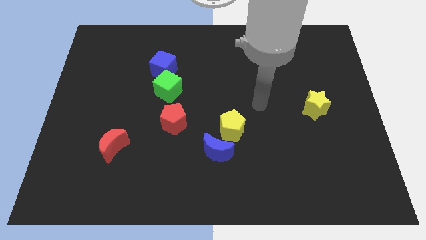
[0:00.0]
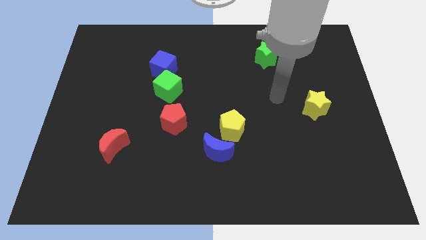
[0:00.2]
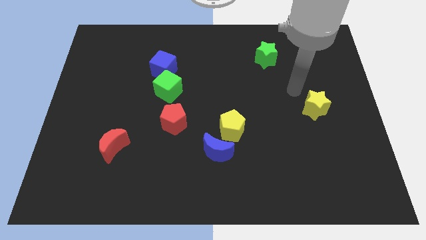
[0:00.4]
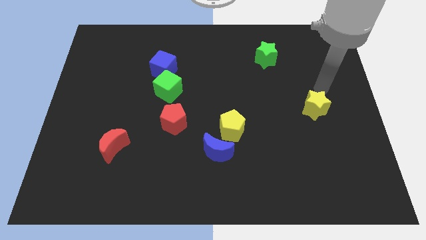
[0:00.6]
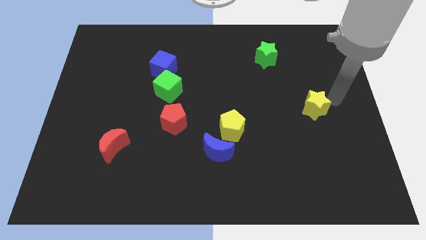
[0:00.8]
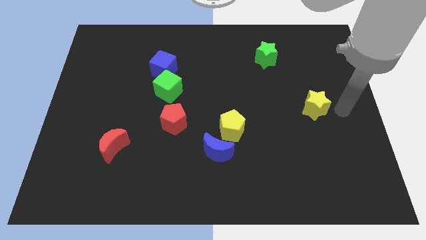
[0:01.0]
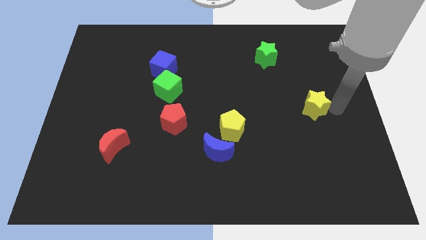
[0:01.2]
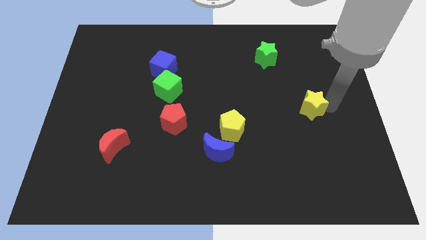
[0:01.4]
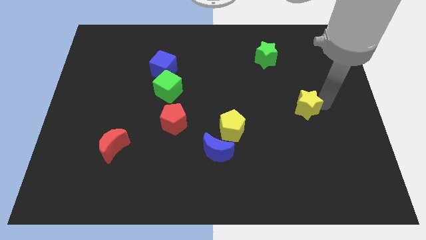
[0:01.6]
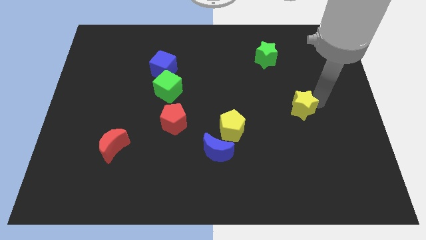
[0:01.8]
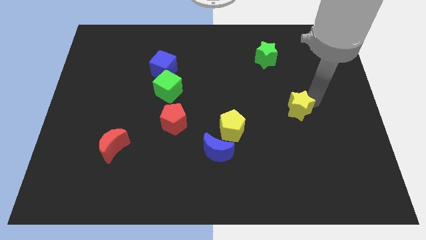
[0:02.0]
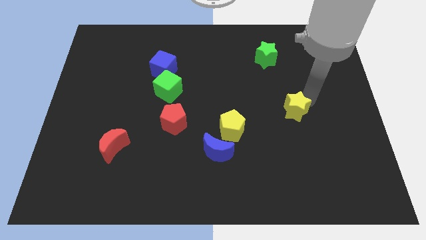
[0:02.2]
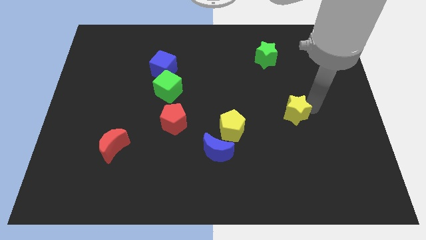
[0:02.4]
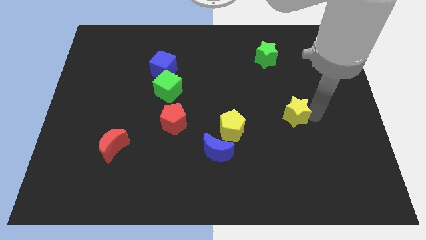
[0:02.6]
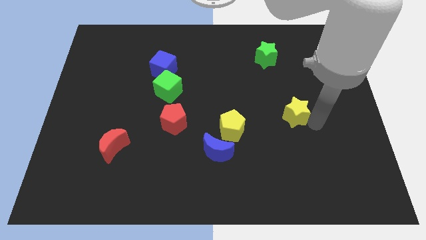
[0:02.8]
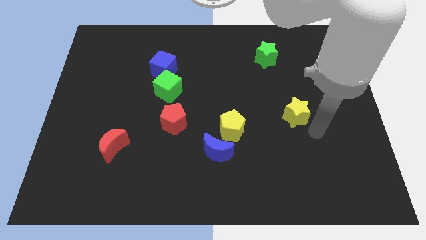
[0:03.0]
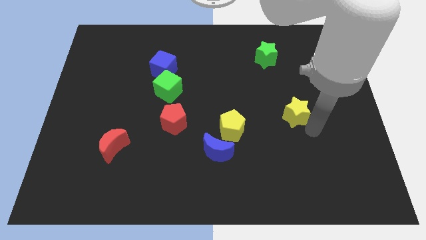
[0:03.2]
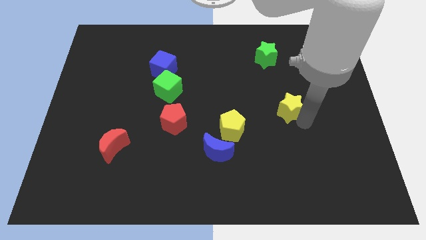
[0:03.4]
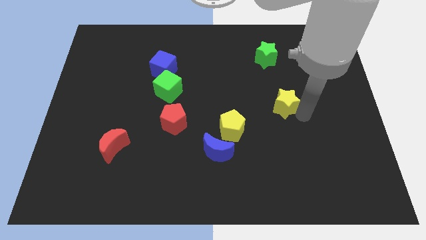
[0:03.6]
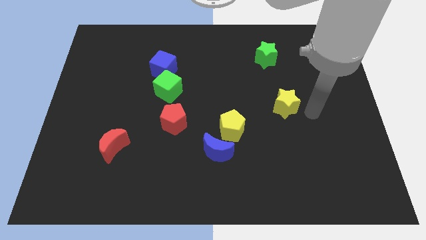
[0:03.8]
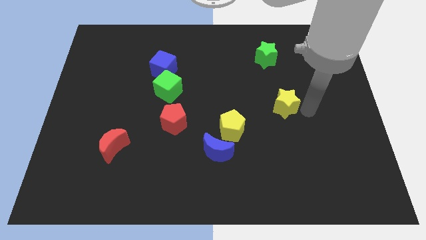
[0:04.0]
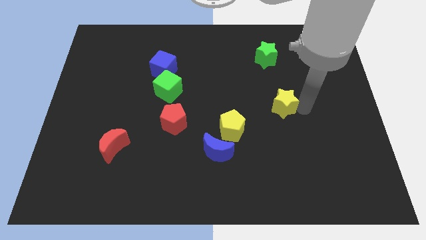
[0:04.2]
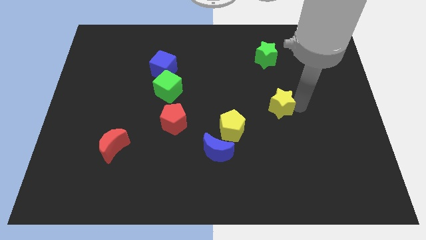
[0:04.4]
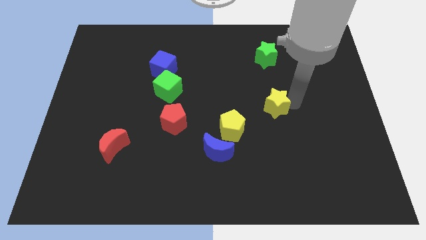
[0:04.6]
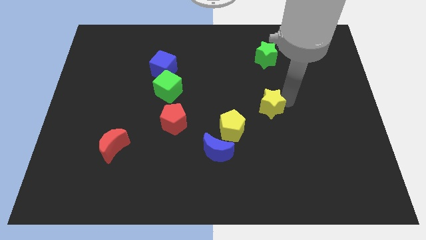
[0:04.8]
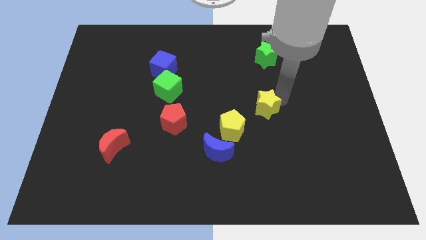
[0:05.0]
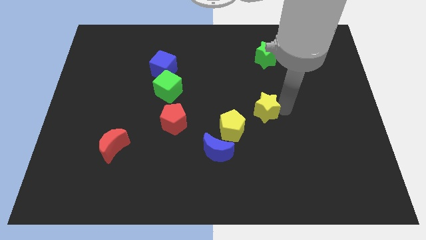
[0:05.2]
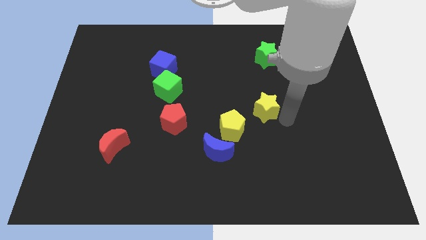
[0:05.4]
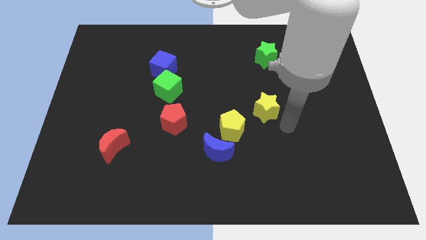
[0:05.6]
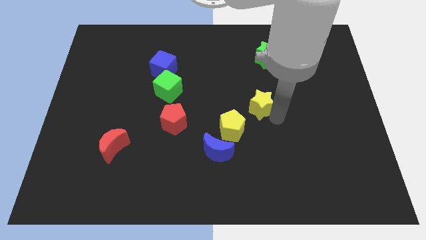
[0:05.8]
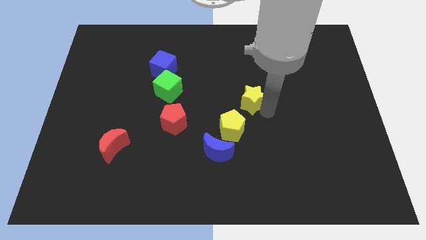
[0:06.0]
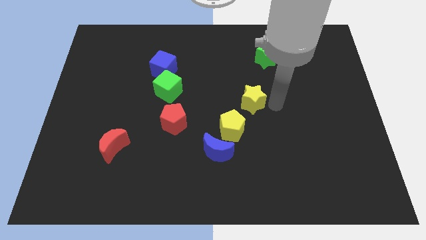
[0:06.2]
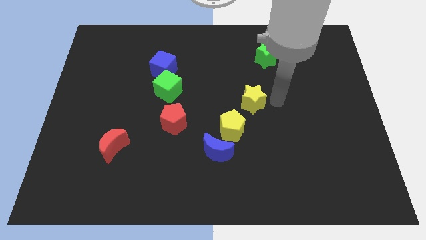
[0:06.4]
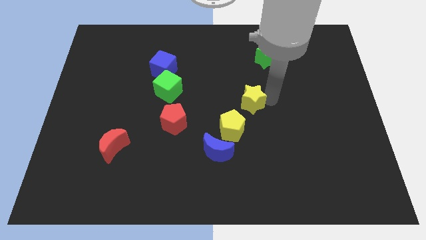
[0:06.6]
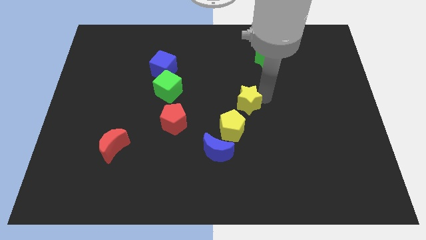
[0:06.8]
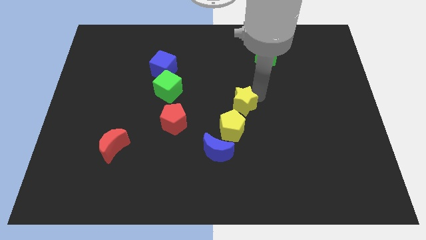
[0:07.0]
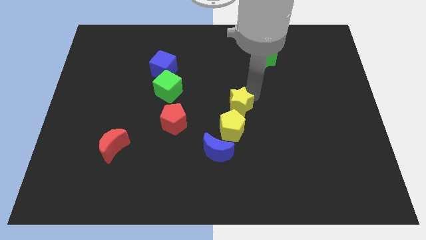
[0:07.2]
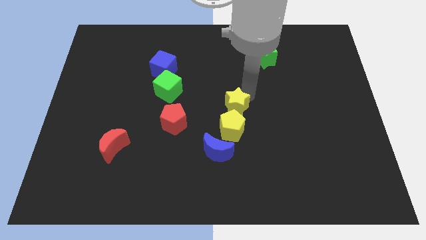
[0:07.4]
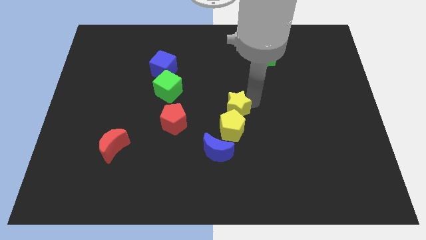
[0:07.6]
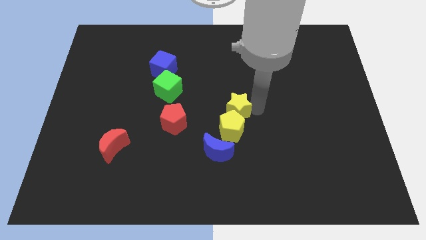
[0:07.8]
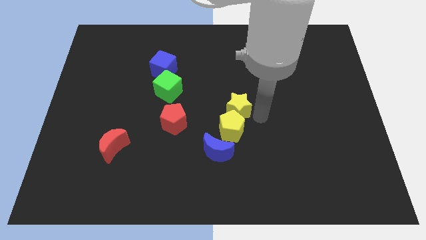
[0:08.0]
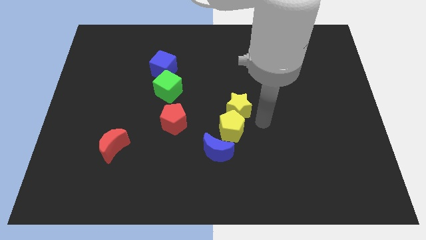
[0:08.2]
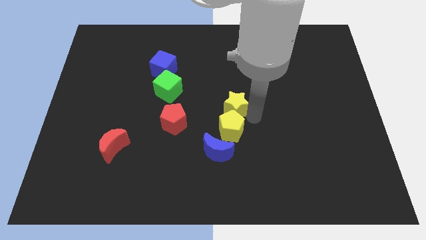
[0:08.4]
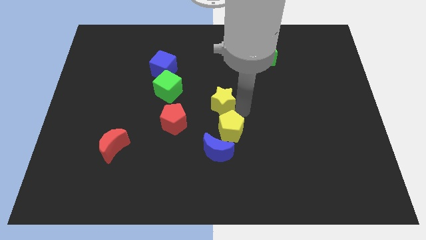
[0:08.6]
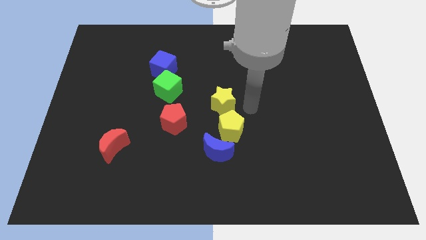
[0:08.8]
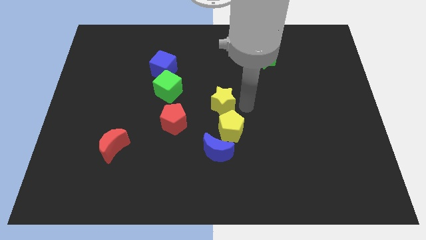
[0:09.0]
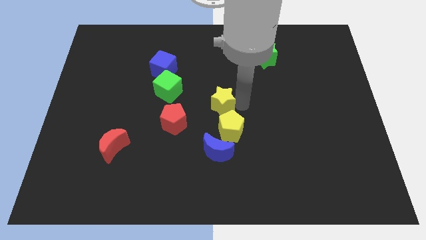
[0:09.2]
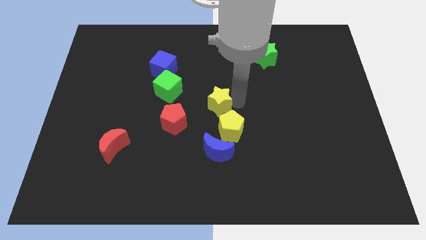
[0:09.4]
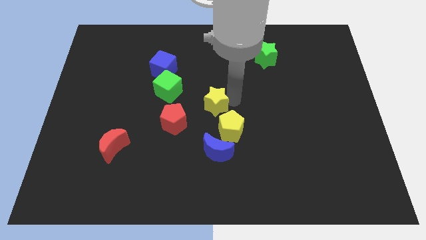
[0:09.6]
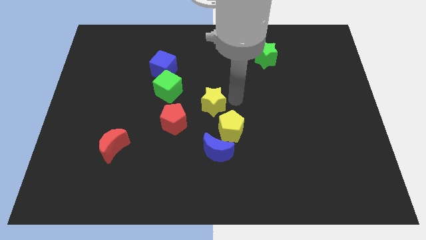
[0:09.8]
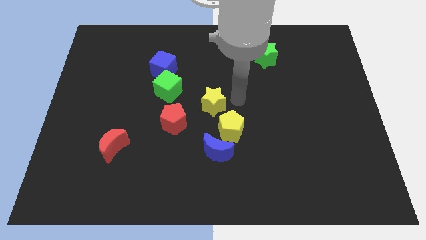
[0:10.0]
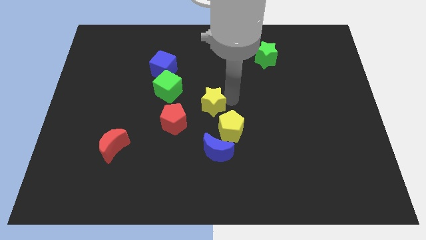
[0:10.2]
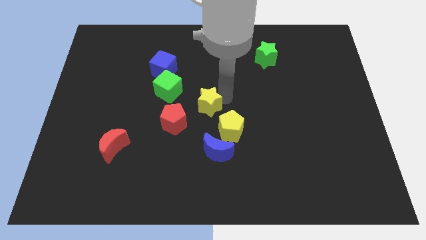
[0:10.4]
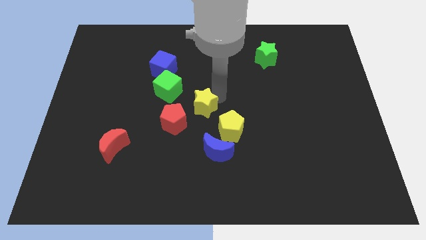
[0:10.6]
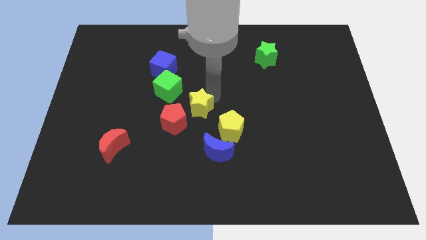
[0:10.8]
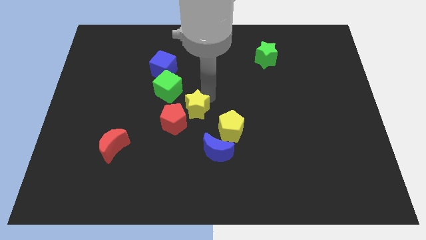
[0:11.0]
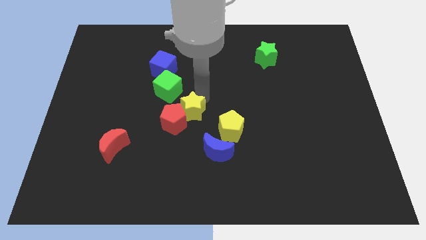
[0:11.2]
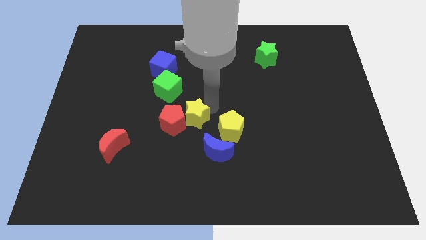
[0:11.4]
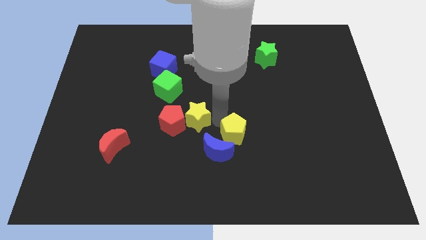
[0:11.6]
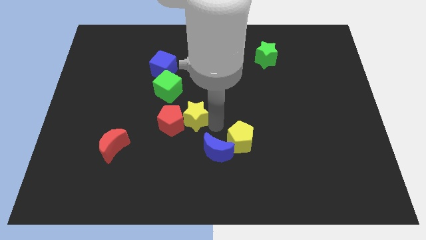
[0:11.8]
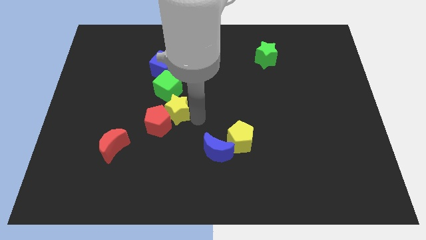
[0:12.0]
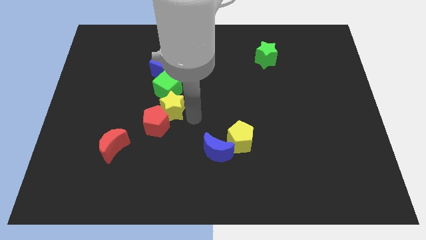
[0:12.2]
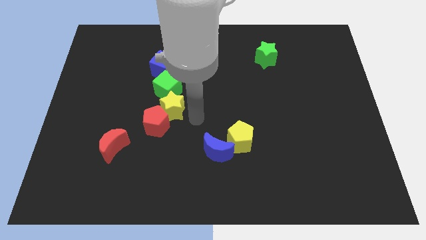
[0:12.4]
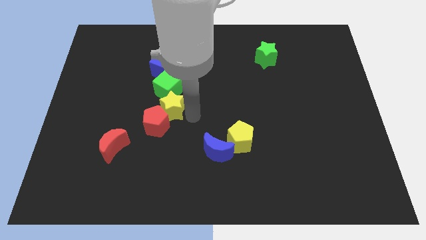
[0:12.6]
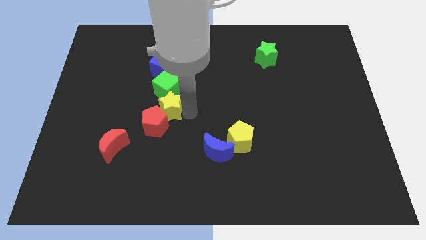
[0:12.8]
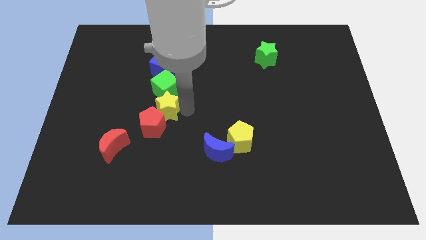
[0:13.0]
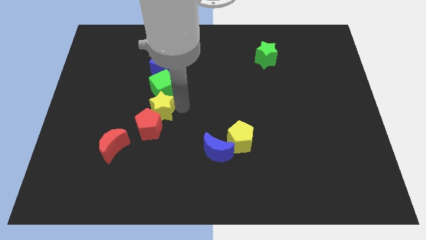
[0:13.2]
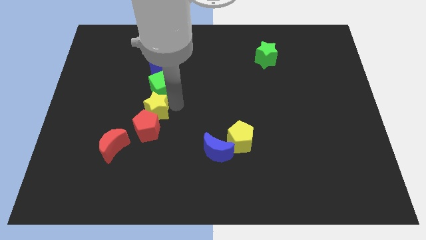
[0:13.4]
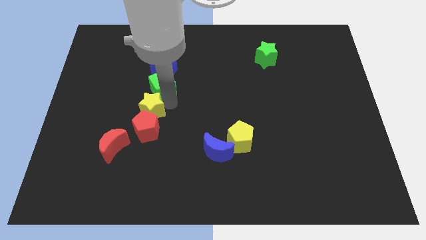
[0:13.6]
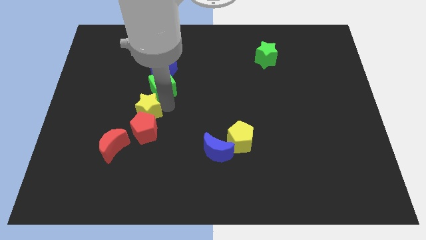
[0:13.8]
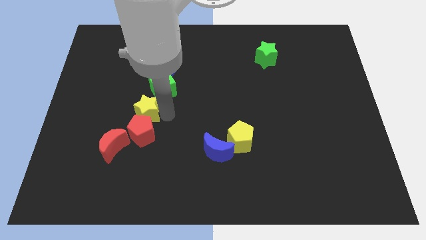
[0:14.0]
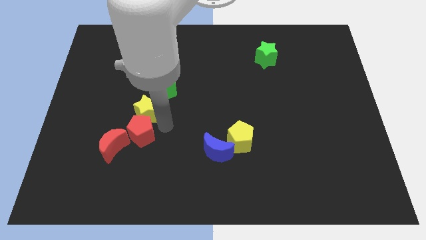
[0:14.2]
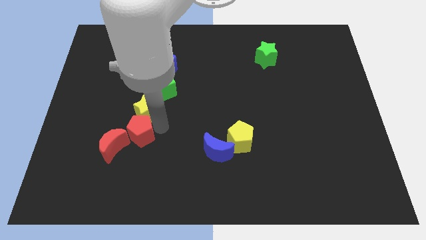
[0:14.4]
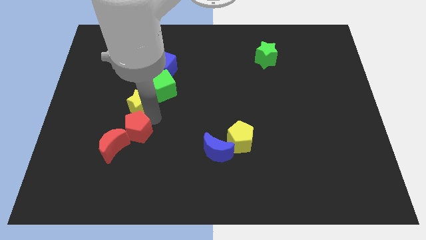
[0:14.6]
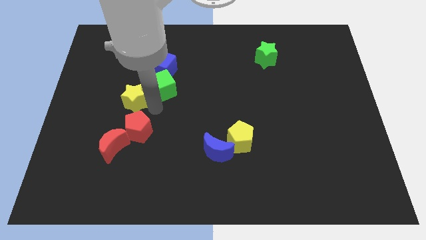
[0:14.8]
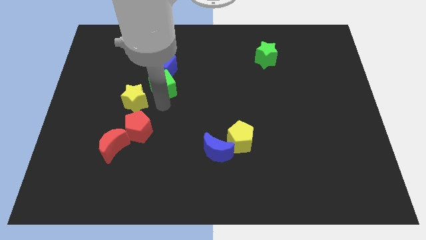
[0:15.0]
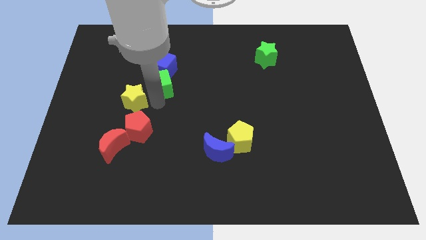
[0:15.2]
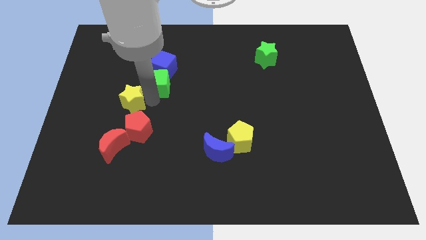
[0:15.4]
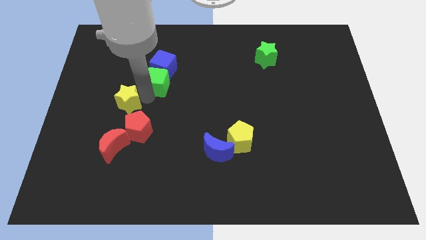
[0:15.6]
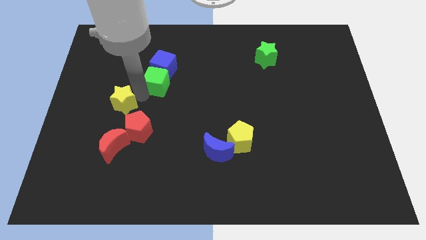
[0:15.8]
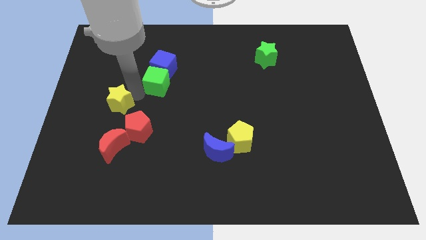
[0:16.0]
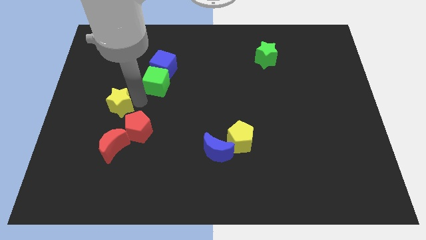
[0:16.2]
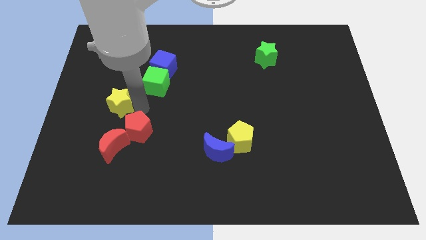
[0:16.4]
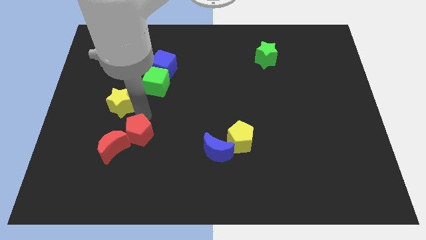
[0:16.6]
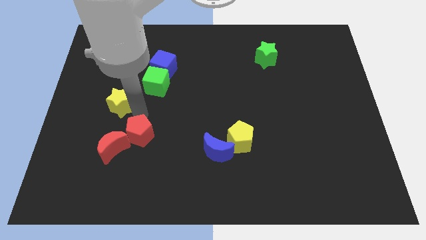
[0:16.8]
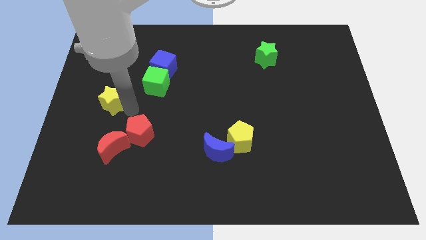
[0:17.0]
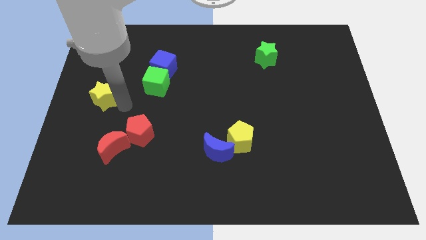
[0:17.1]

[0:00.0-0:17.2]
push the yellow star to the center left
